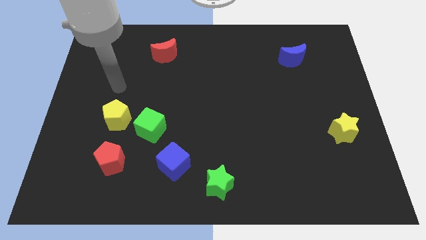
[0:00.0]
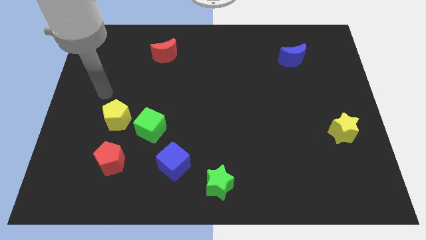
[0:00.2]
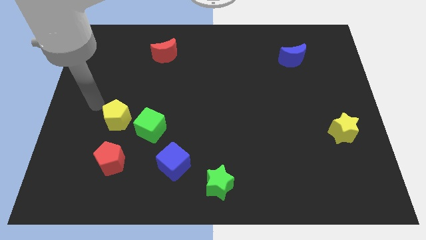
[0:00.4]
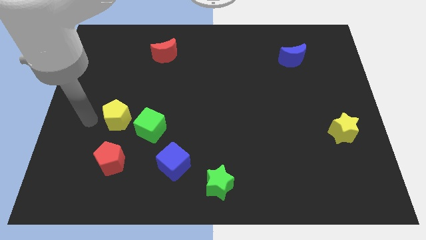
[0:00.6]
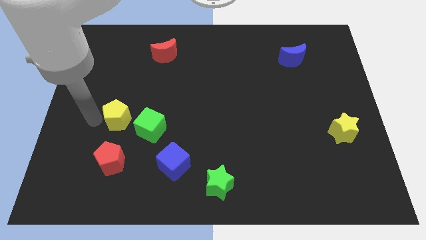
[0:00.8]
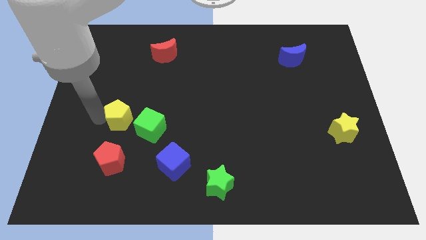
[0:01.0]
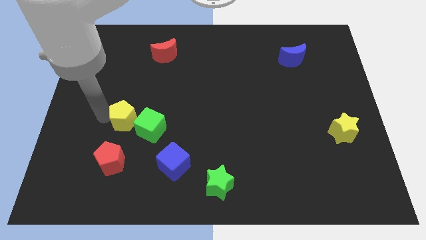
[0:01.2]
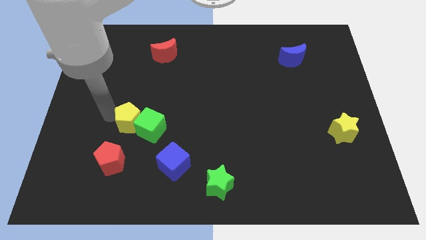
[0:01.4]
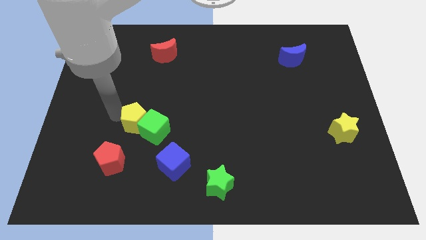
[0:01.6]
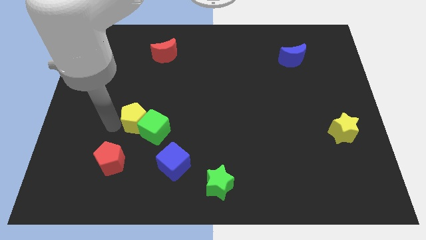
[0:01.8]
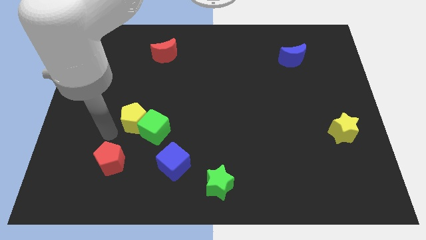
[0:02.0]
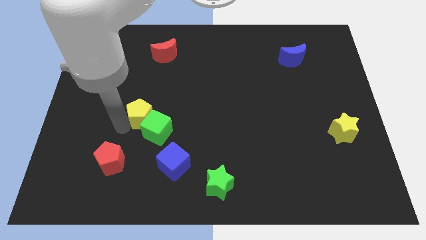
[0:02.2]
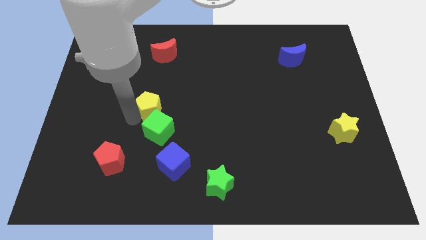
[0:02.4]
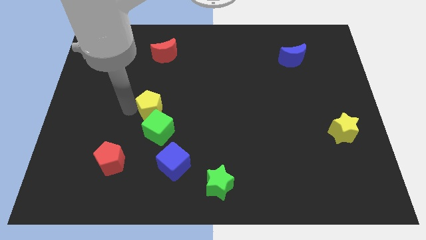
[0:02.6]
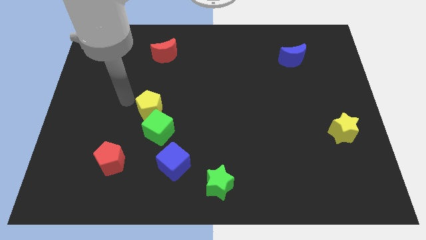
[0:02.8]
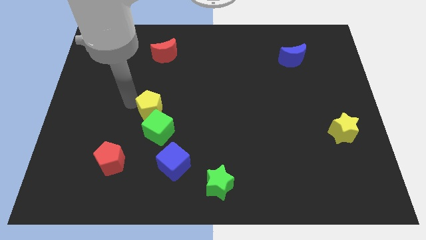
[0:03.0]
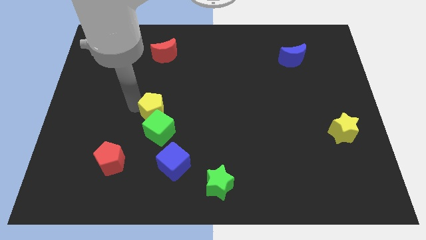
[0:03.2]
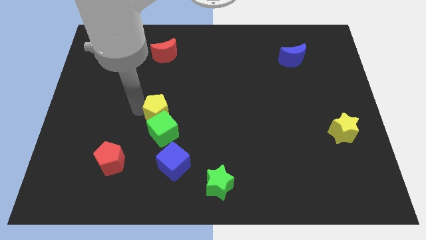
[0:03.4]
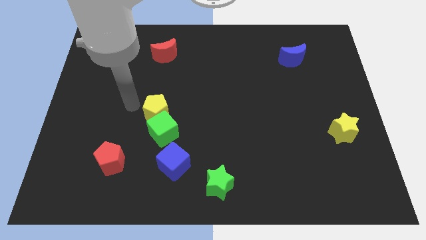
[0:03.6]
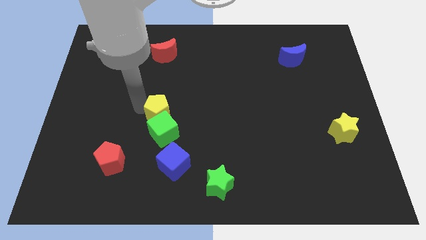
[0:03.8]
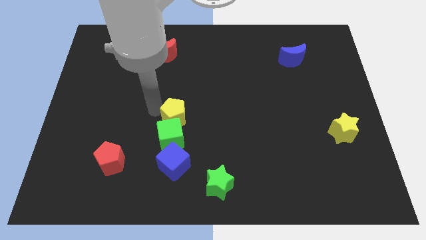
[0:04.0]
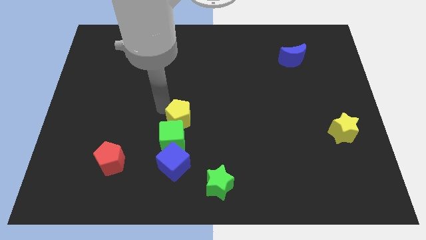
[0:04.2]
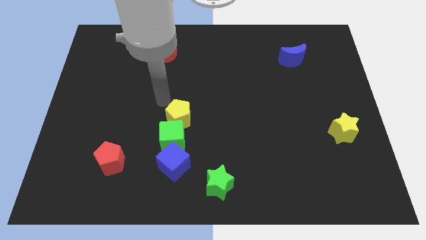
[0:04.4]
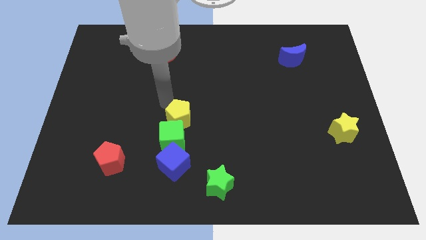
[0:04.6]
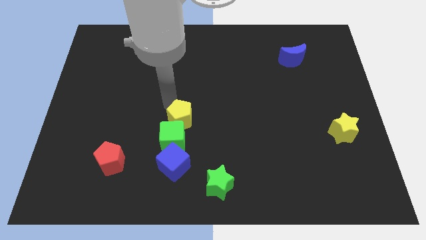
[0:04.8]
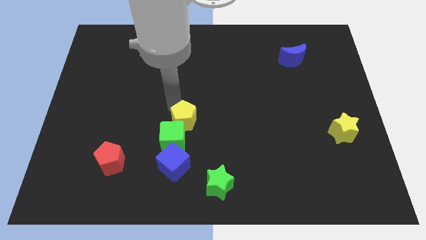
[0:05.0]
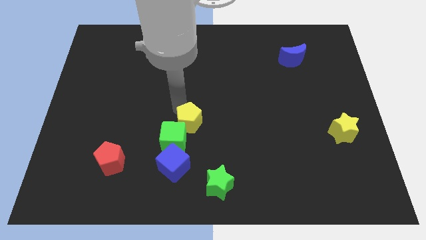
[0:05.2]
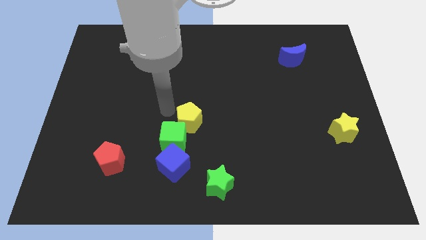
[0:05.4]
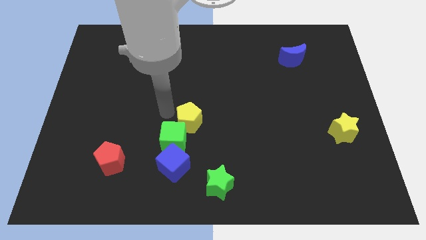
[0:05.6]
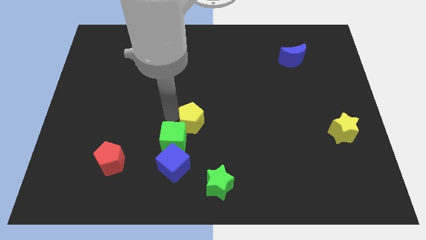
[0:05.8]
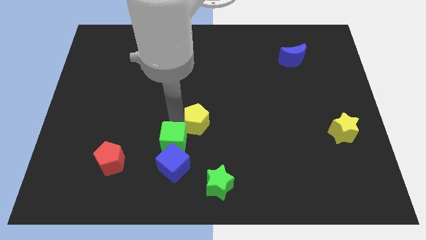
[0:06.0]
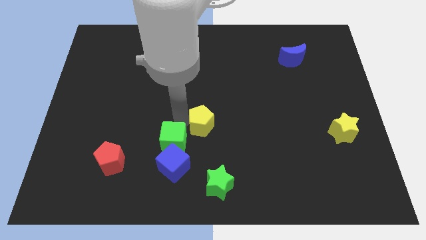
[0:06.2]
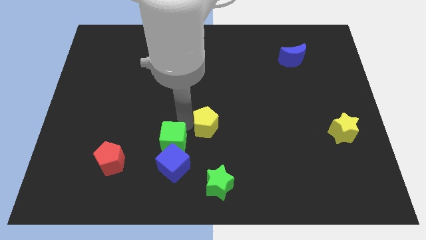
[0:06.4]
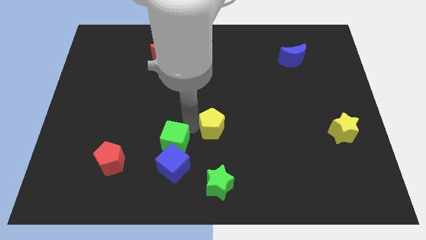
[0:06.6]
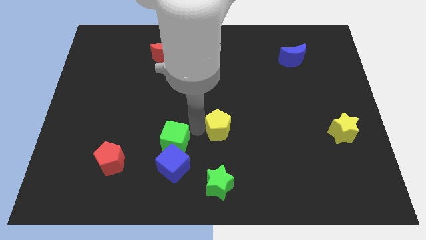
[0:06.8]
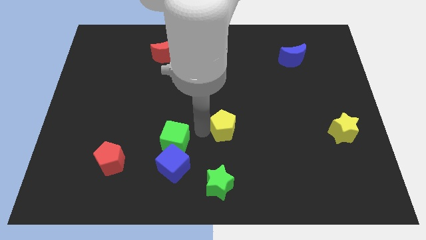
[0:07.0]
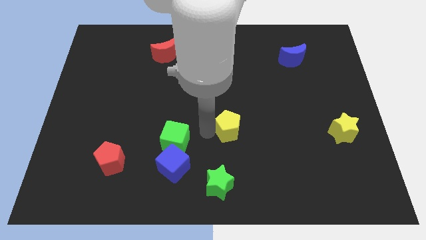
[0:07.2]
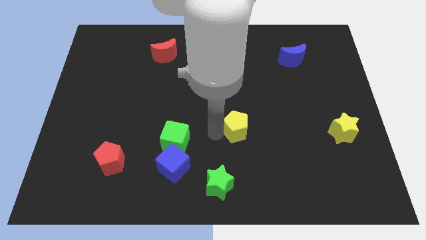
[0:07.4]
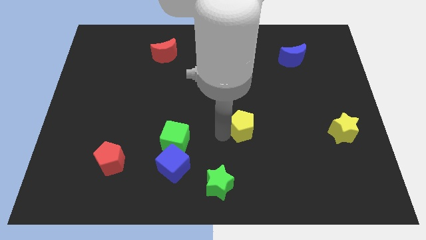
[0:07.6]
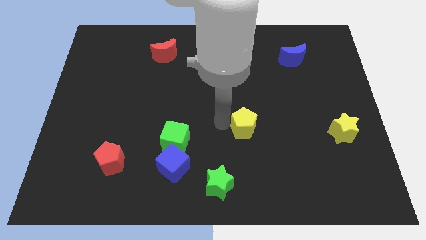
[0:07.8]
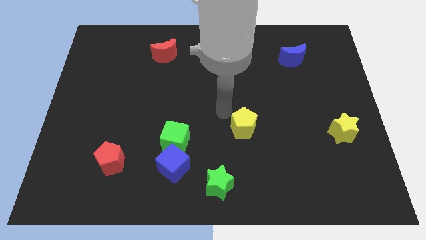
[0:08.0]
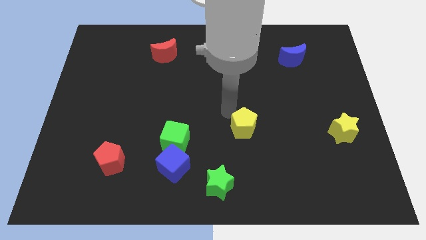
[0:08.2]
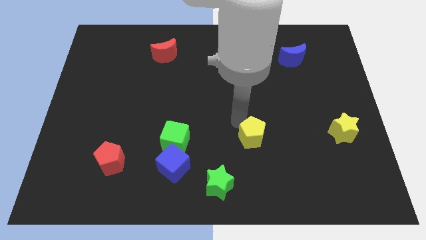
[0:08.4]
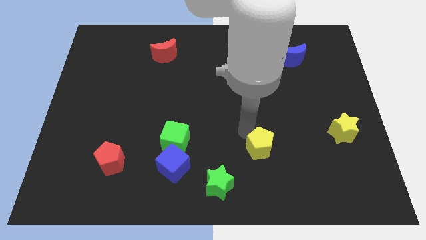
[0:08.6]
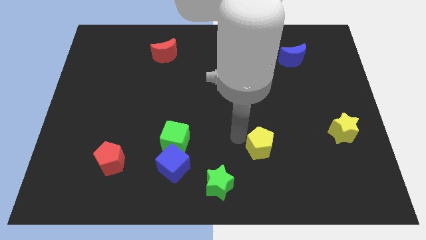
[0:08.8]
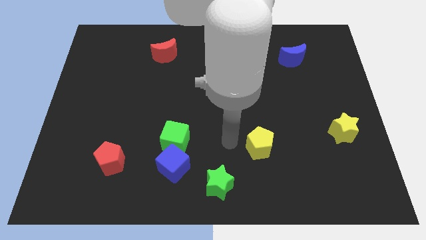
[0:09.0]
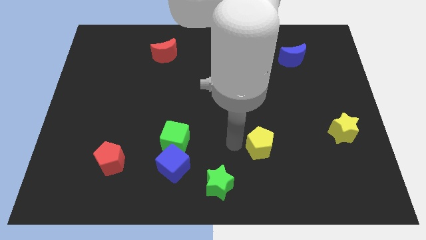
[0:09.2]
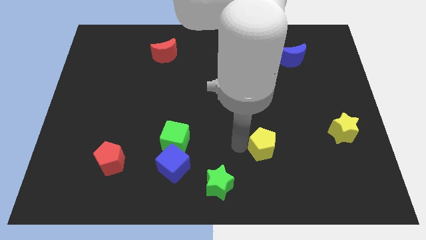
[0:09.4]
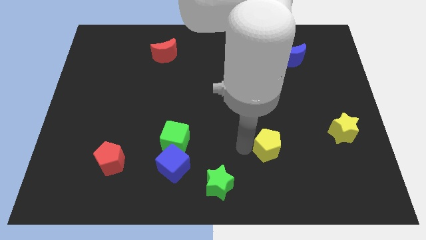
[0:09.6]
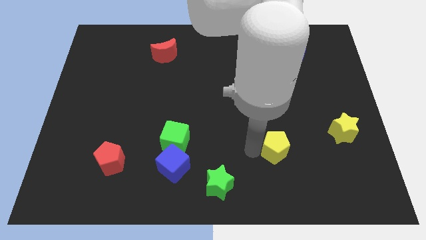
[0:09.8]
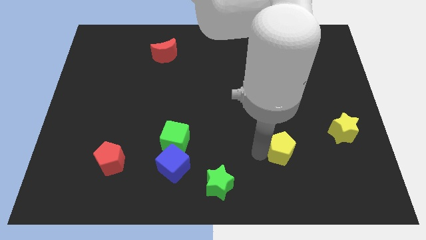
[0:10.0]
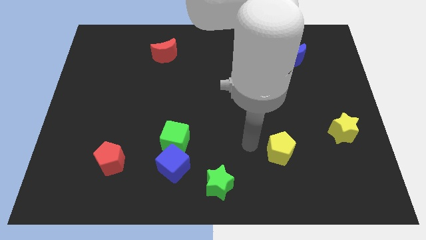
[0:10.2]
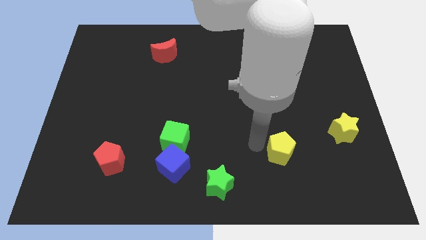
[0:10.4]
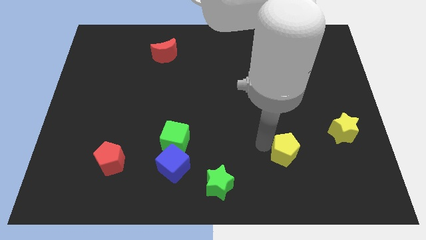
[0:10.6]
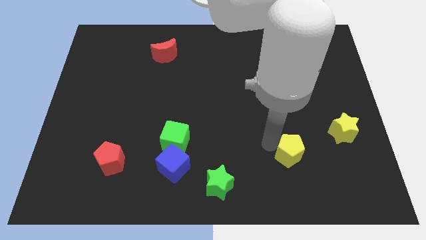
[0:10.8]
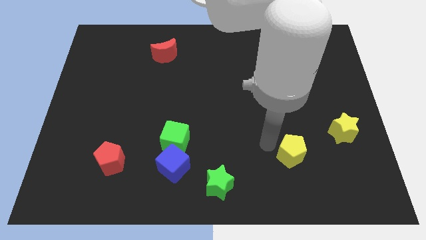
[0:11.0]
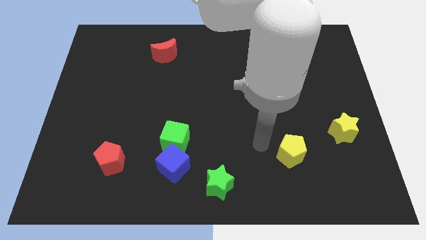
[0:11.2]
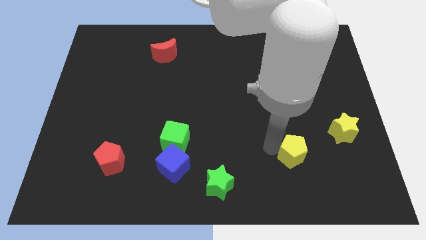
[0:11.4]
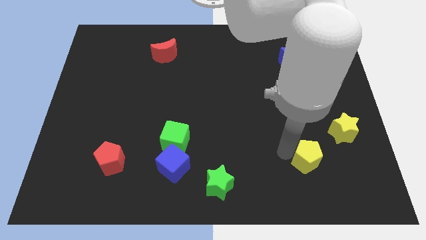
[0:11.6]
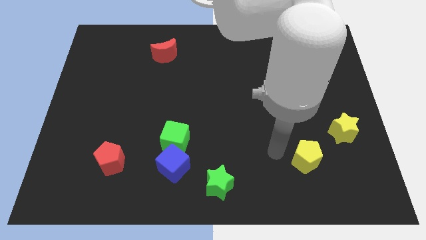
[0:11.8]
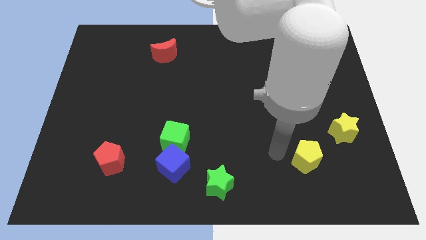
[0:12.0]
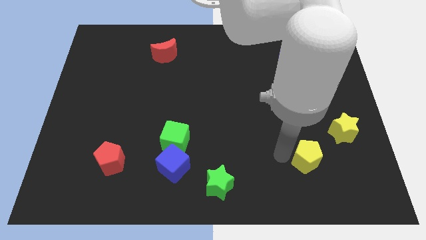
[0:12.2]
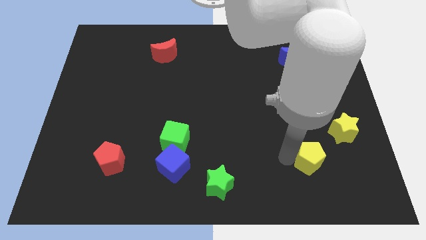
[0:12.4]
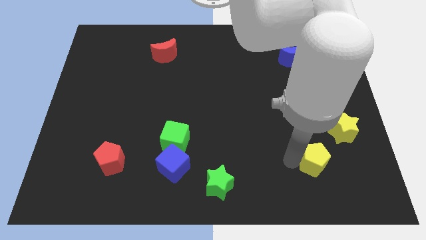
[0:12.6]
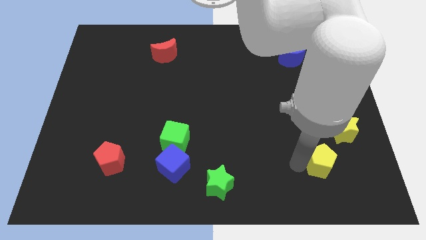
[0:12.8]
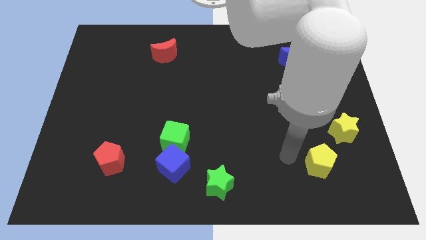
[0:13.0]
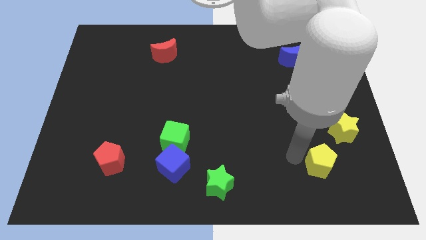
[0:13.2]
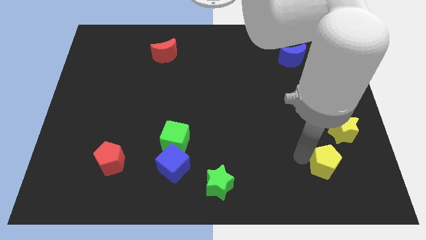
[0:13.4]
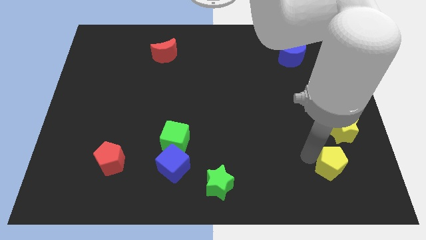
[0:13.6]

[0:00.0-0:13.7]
push the yellow pentagon to the bottom side of the yellow star

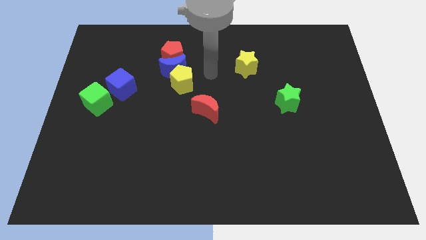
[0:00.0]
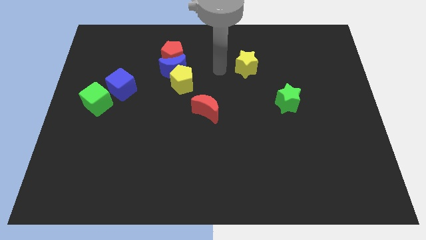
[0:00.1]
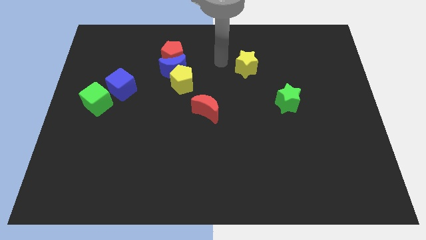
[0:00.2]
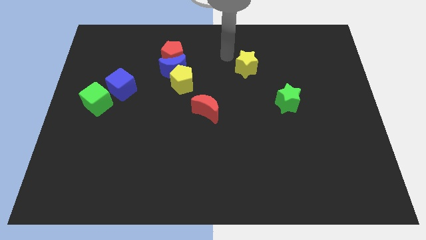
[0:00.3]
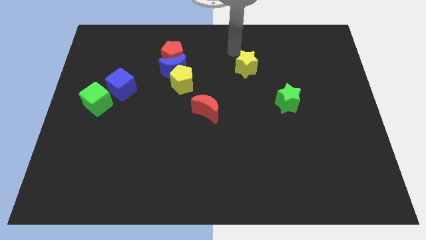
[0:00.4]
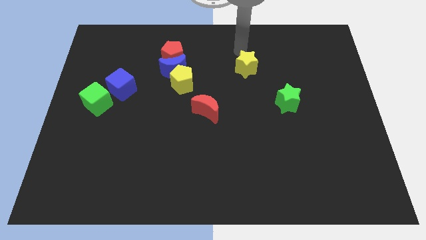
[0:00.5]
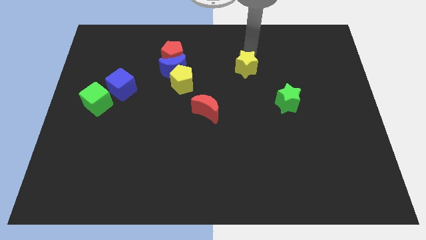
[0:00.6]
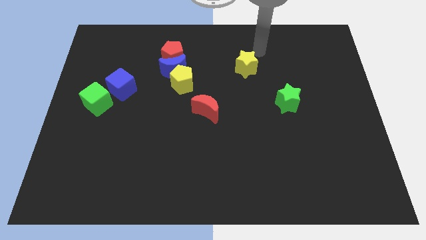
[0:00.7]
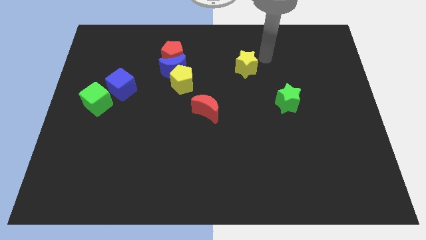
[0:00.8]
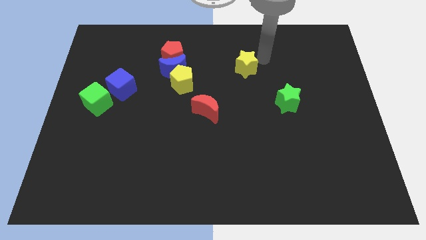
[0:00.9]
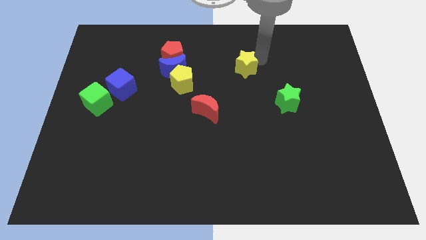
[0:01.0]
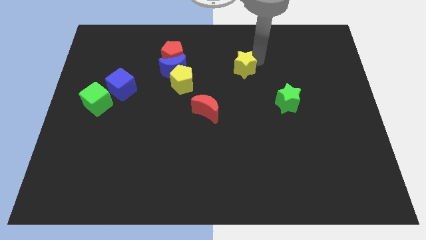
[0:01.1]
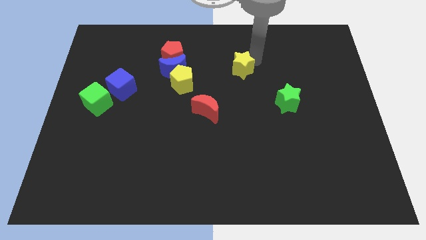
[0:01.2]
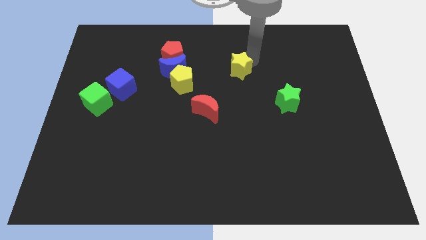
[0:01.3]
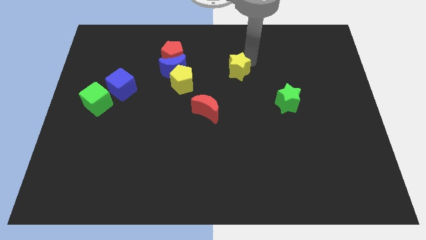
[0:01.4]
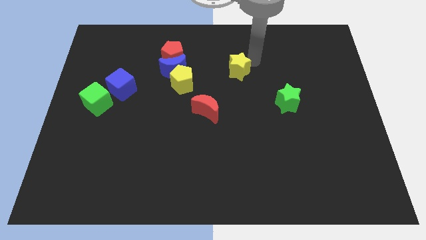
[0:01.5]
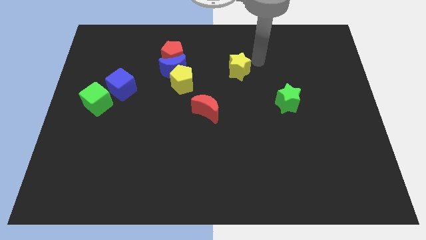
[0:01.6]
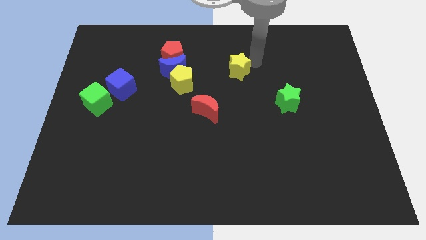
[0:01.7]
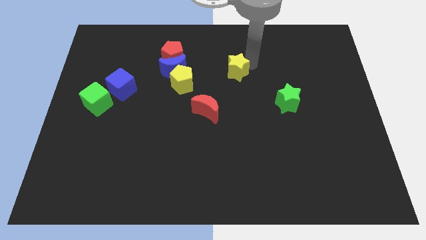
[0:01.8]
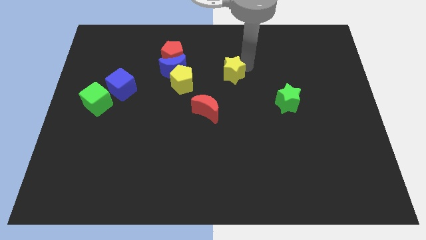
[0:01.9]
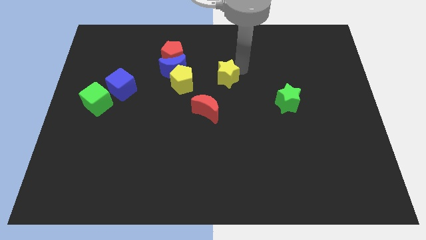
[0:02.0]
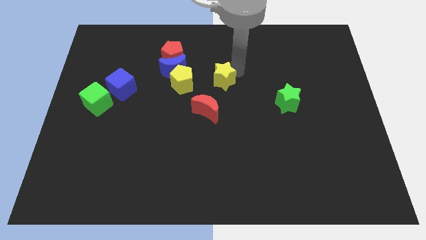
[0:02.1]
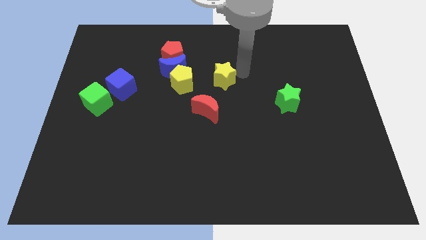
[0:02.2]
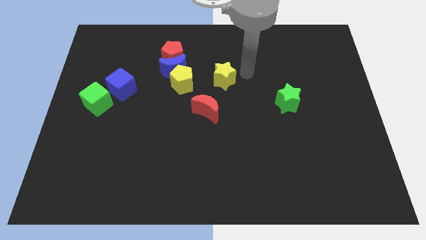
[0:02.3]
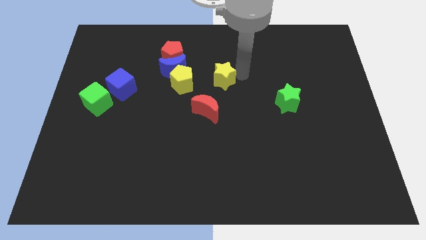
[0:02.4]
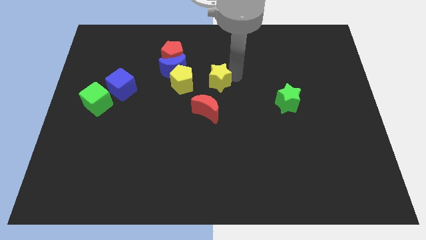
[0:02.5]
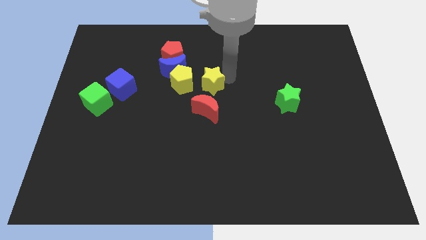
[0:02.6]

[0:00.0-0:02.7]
put the yellow star to the bottom right side of the blue moon
